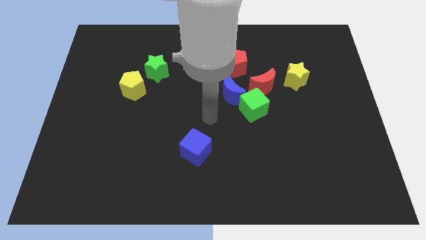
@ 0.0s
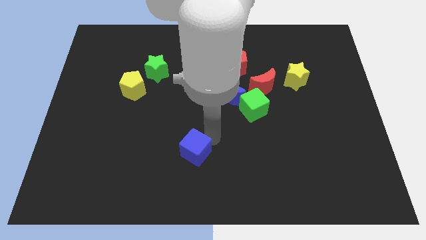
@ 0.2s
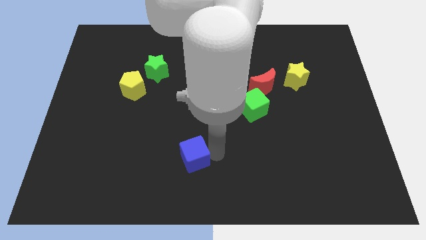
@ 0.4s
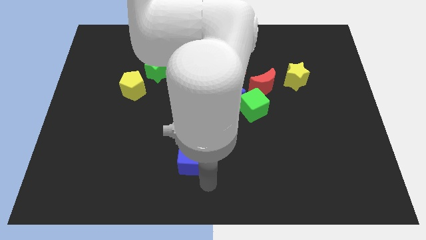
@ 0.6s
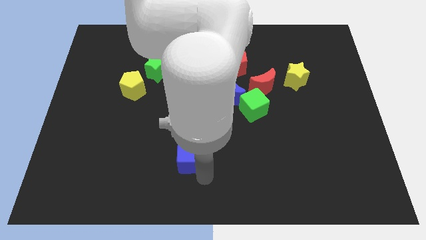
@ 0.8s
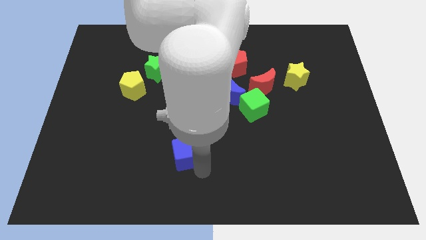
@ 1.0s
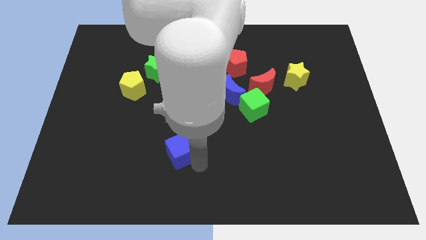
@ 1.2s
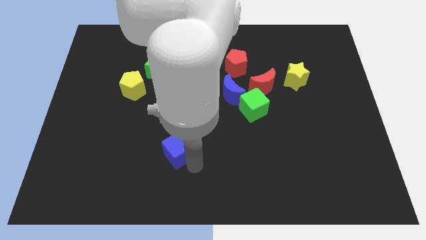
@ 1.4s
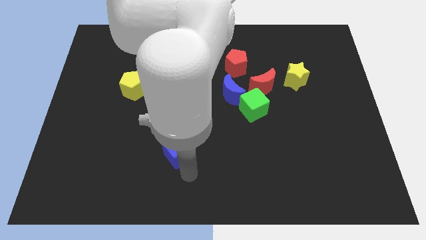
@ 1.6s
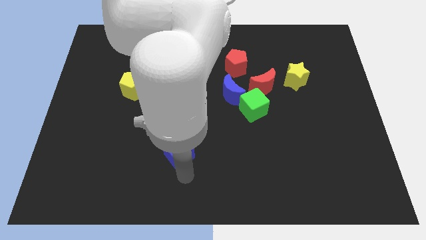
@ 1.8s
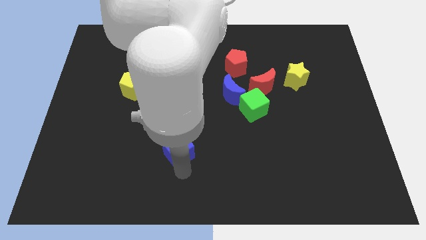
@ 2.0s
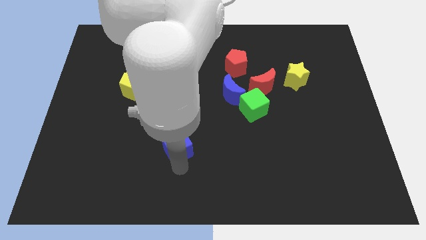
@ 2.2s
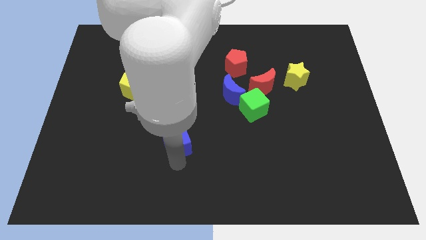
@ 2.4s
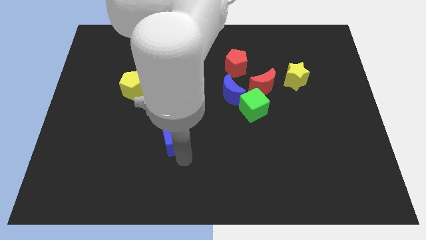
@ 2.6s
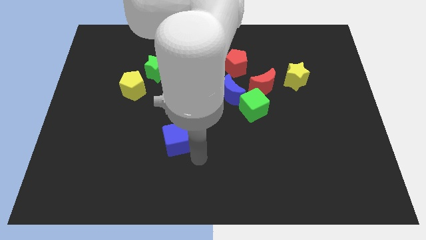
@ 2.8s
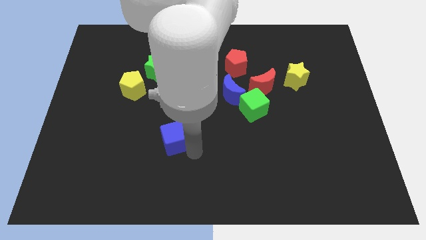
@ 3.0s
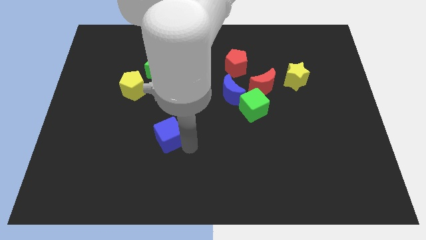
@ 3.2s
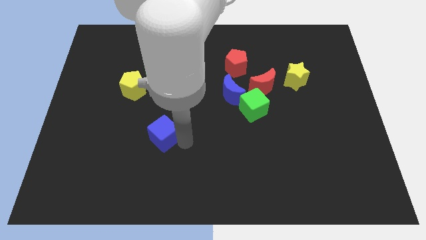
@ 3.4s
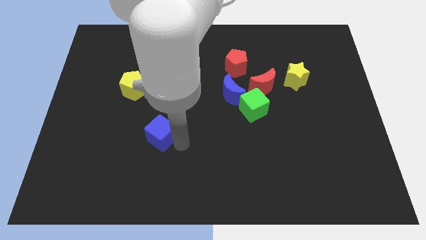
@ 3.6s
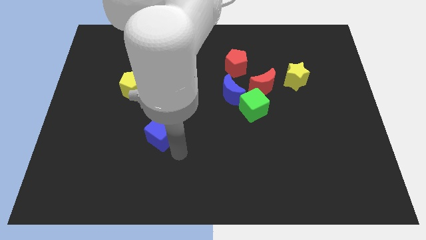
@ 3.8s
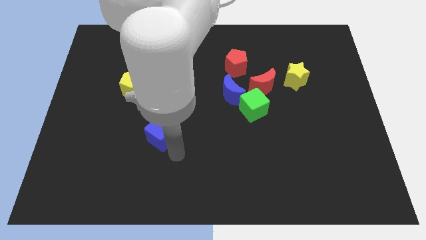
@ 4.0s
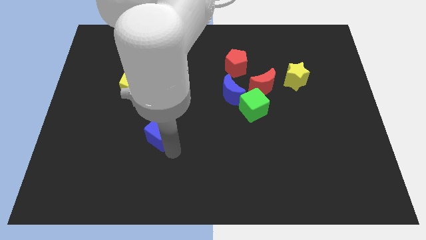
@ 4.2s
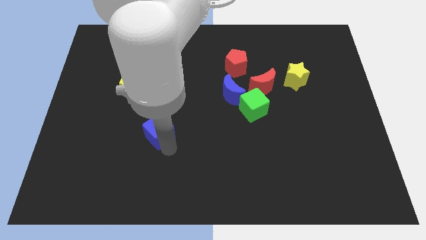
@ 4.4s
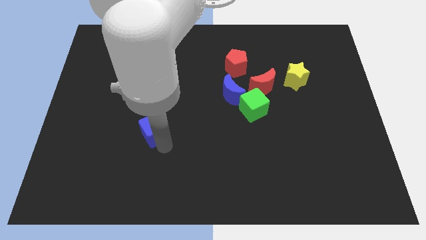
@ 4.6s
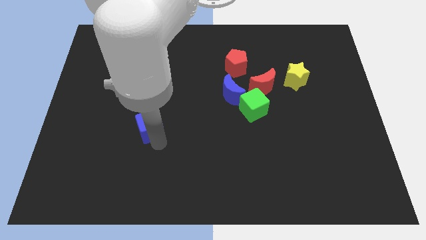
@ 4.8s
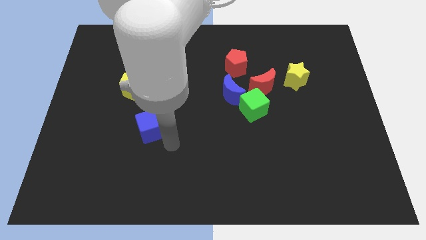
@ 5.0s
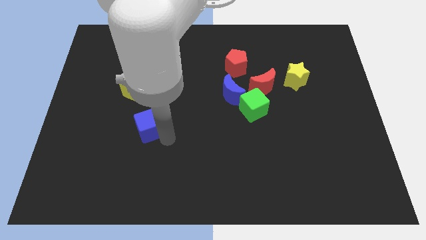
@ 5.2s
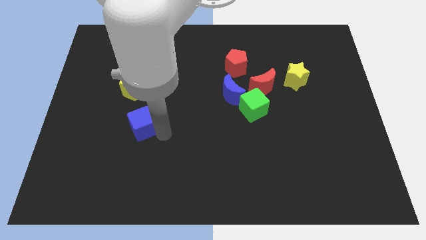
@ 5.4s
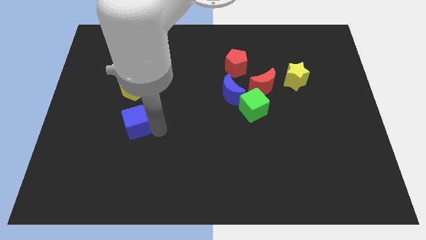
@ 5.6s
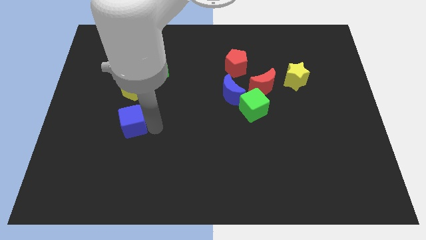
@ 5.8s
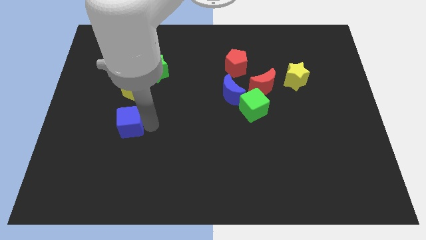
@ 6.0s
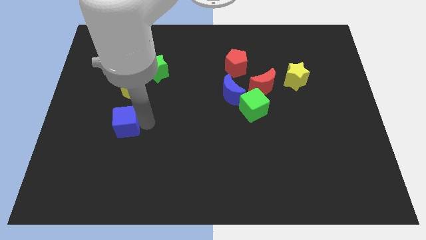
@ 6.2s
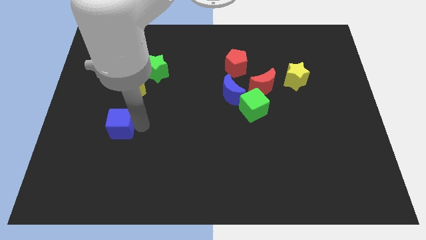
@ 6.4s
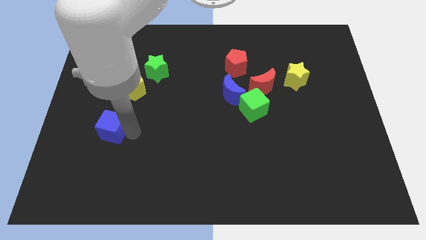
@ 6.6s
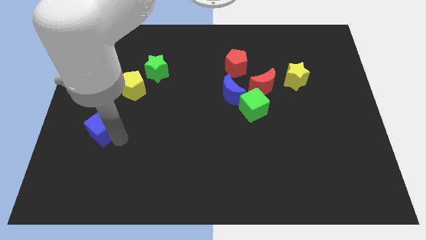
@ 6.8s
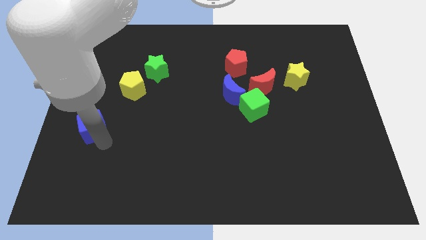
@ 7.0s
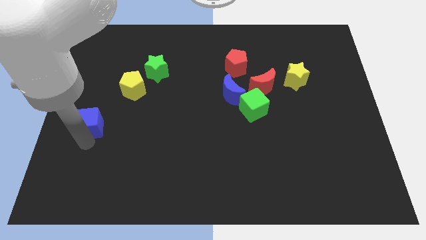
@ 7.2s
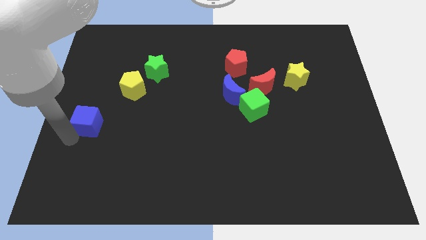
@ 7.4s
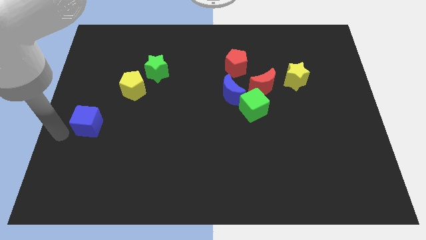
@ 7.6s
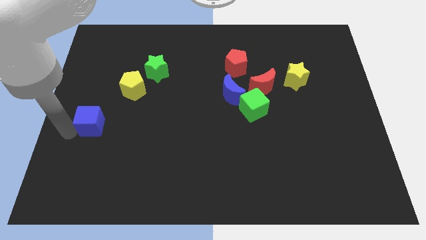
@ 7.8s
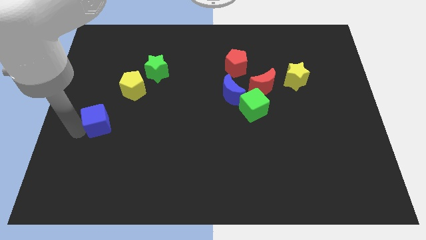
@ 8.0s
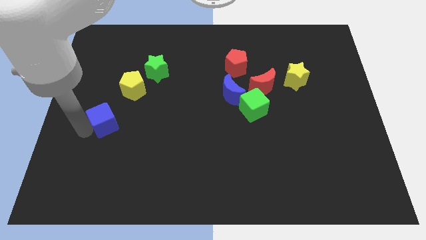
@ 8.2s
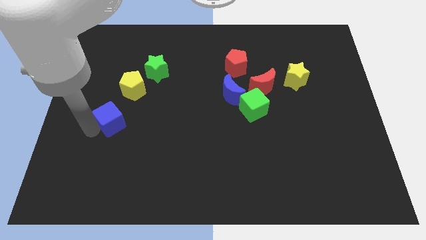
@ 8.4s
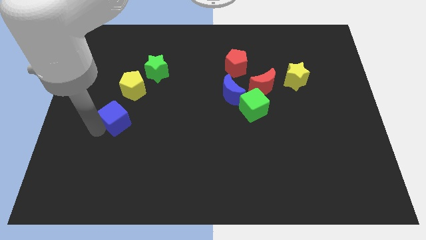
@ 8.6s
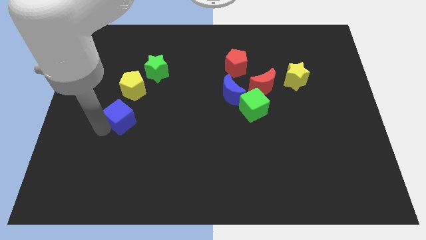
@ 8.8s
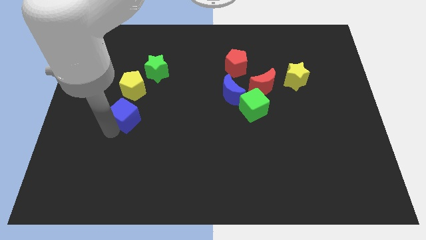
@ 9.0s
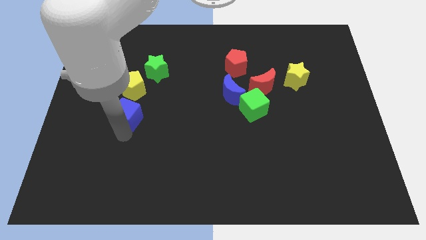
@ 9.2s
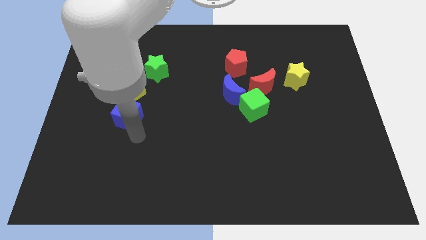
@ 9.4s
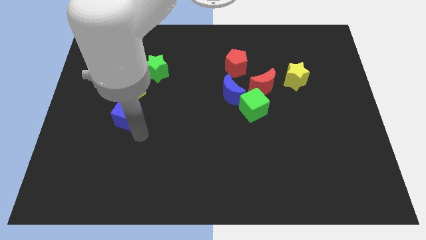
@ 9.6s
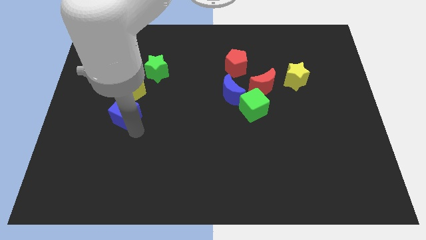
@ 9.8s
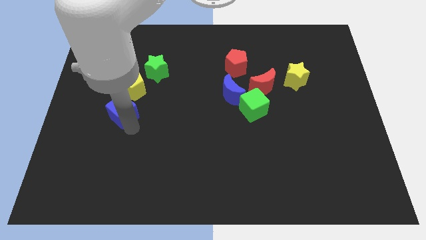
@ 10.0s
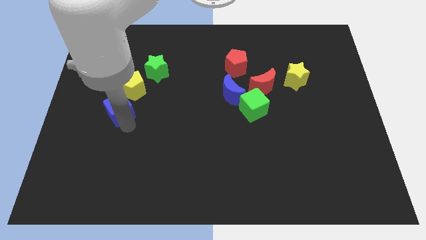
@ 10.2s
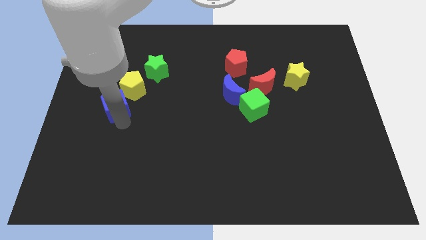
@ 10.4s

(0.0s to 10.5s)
slide the blue cube diagonally upwards and left

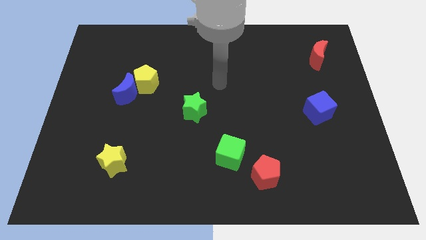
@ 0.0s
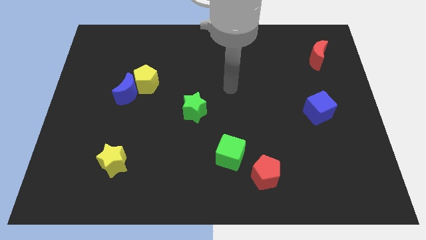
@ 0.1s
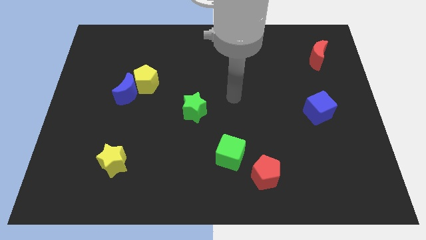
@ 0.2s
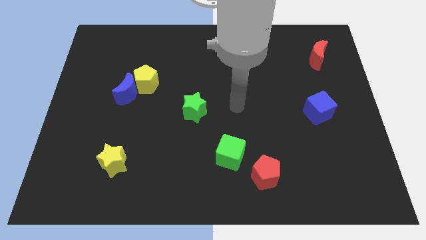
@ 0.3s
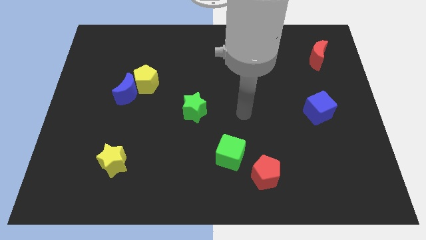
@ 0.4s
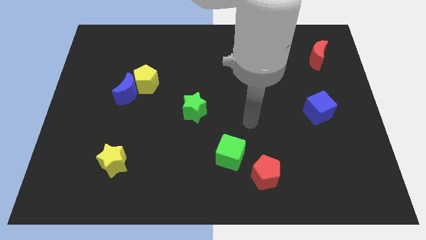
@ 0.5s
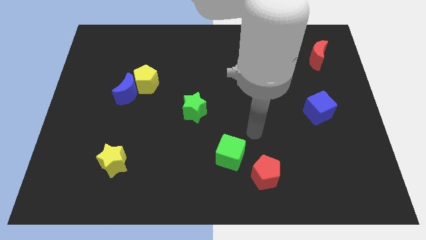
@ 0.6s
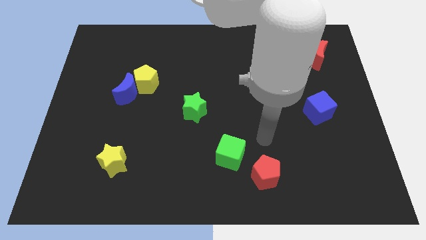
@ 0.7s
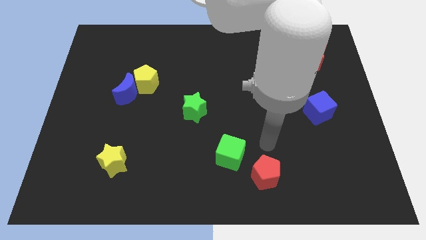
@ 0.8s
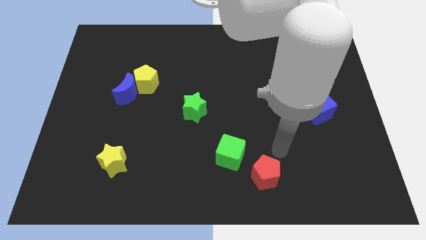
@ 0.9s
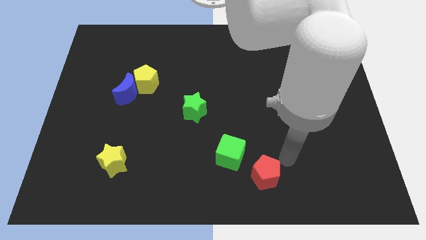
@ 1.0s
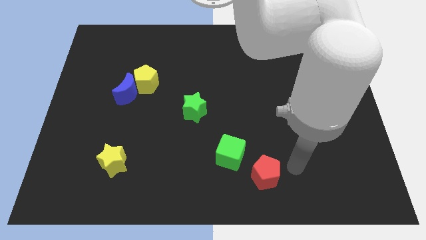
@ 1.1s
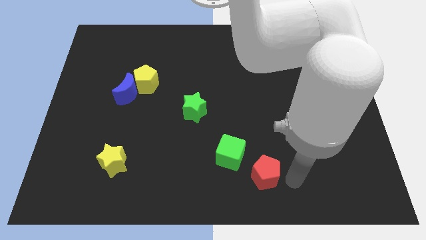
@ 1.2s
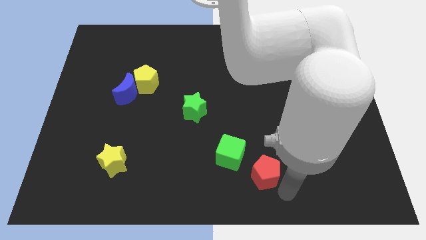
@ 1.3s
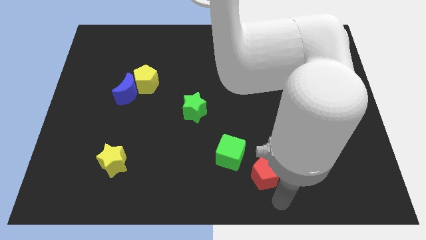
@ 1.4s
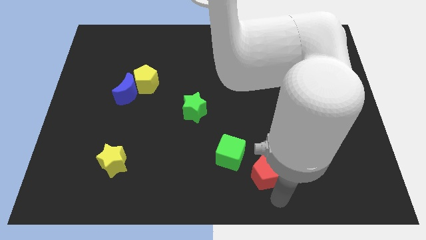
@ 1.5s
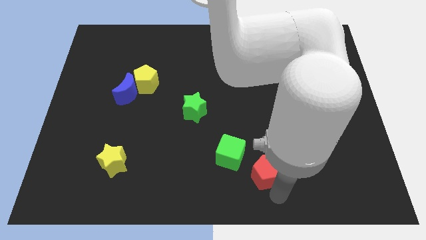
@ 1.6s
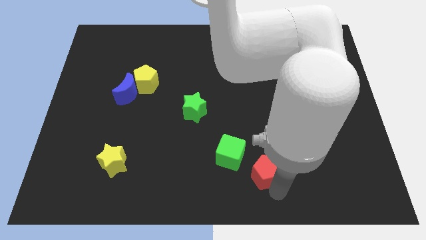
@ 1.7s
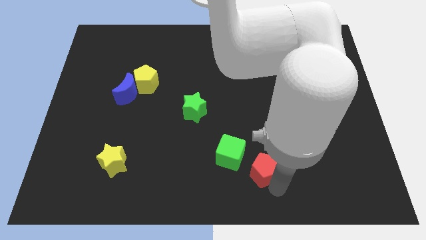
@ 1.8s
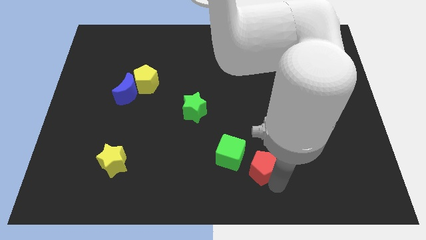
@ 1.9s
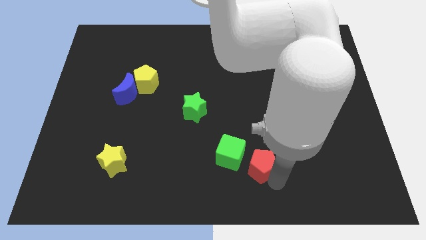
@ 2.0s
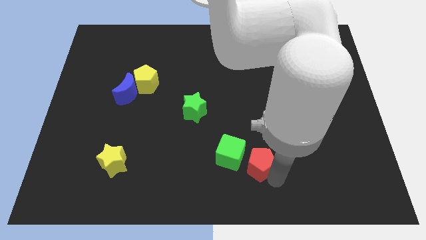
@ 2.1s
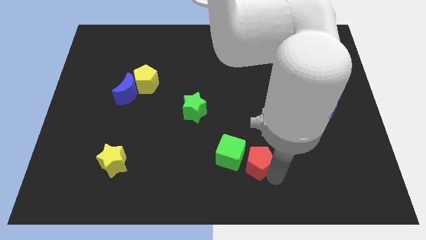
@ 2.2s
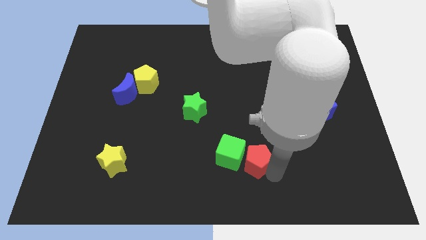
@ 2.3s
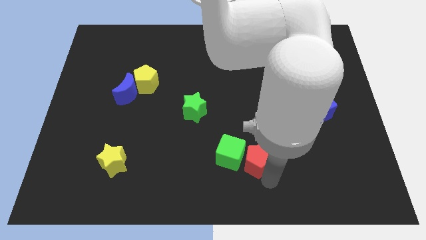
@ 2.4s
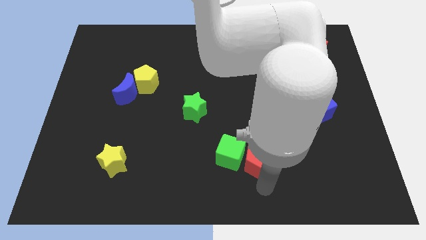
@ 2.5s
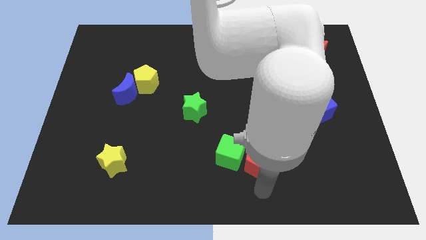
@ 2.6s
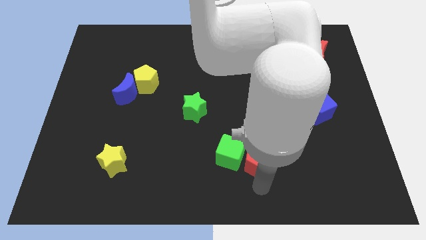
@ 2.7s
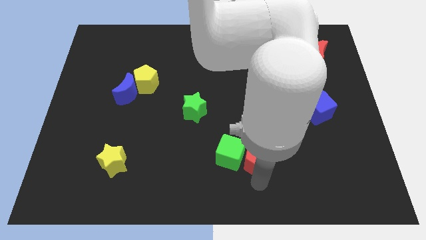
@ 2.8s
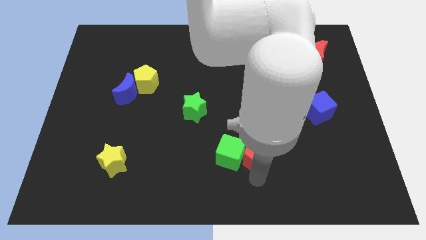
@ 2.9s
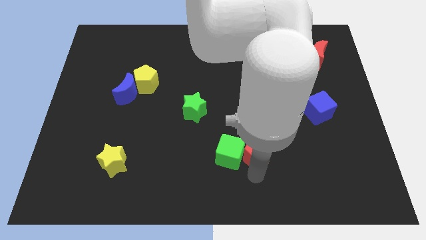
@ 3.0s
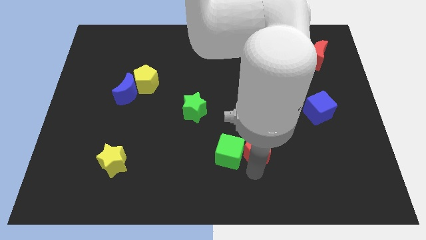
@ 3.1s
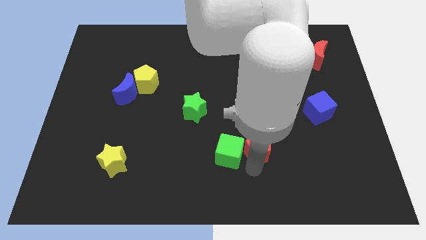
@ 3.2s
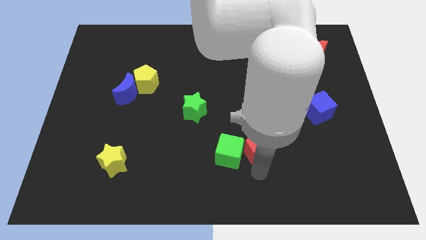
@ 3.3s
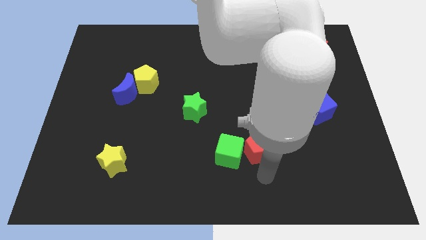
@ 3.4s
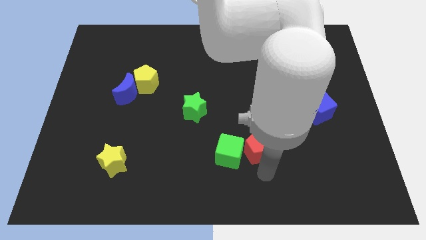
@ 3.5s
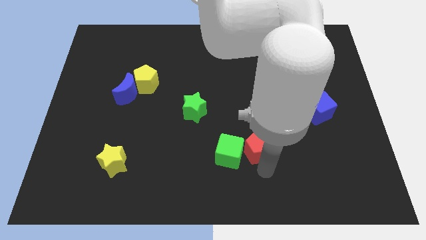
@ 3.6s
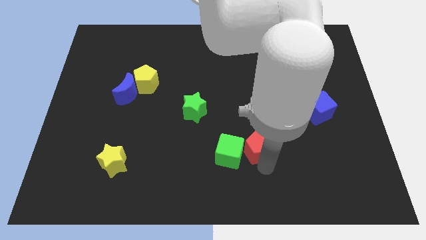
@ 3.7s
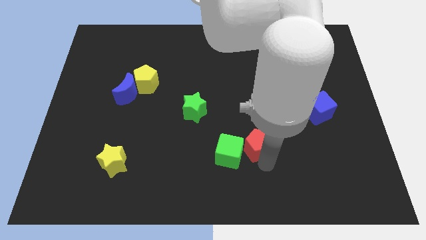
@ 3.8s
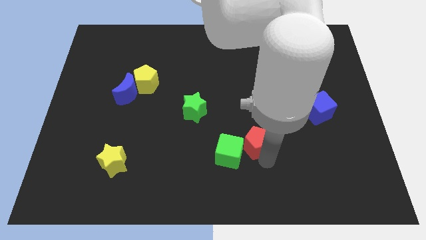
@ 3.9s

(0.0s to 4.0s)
move the red pentagon up a little bit
